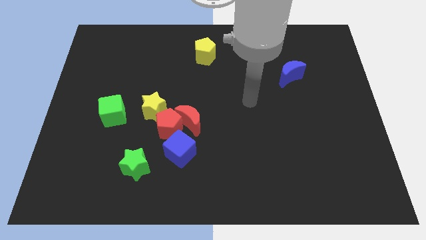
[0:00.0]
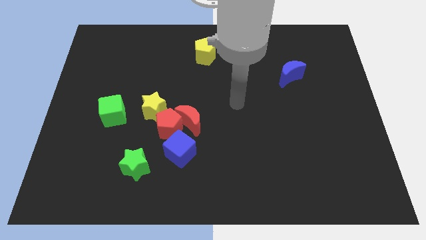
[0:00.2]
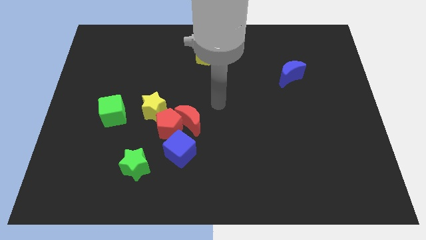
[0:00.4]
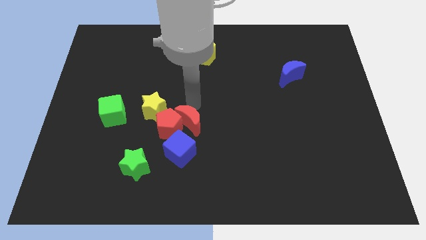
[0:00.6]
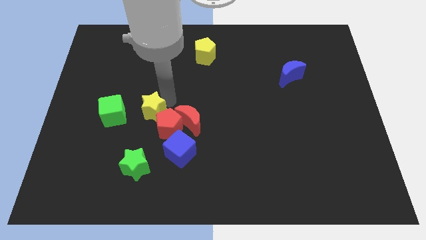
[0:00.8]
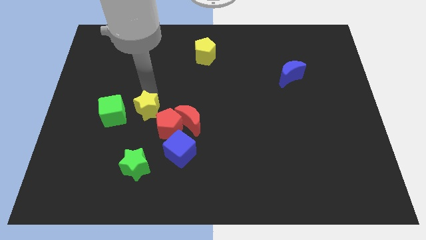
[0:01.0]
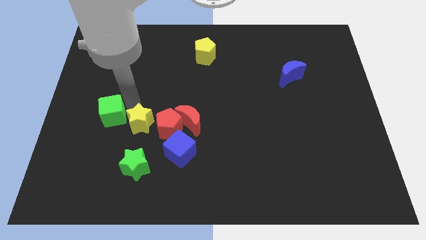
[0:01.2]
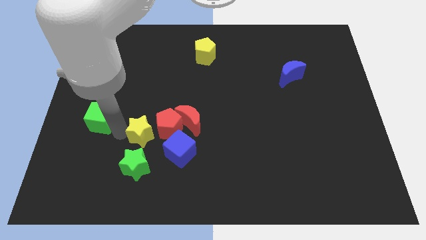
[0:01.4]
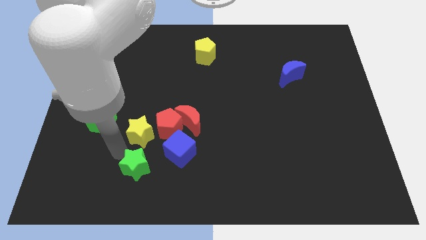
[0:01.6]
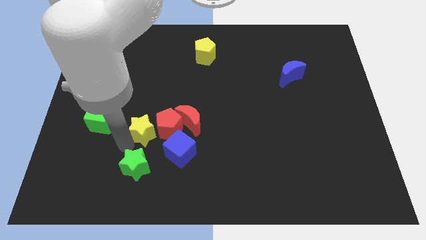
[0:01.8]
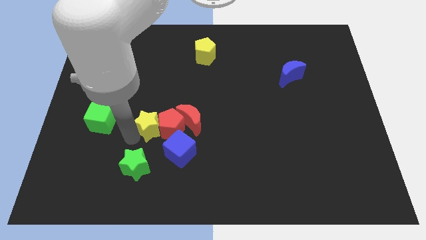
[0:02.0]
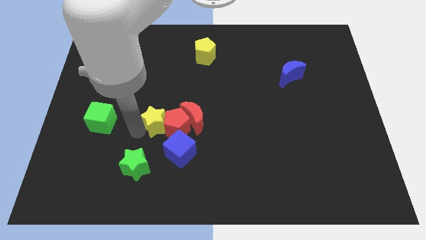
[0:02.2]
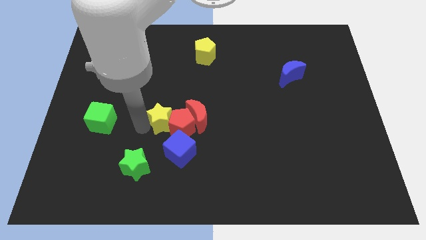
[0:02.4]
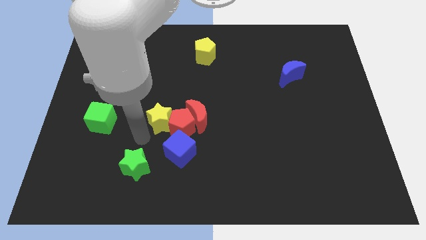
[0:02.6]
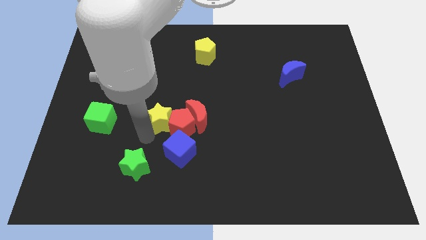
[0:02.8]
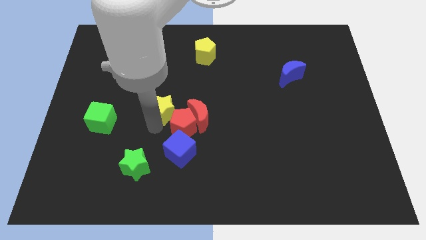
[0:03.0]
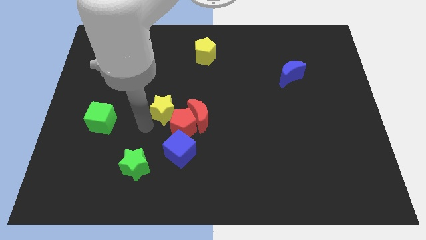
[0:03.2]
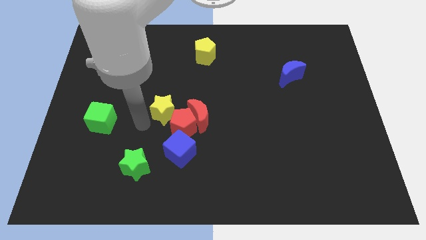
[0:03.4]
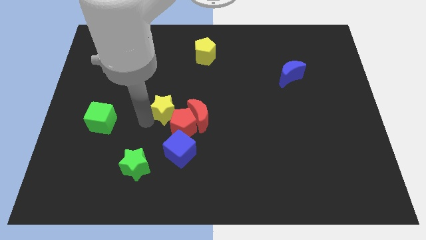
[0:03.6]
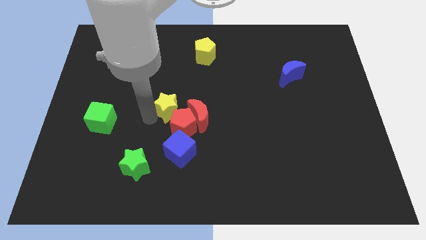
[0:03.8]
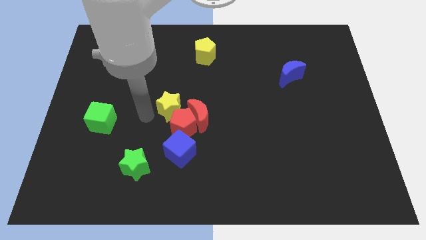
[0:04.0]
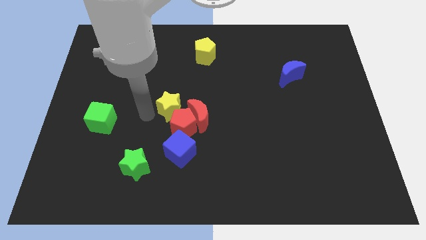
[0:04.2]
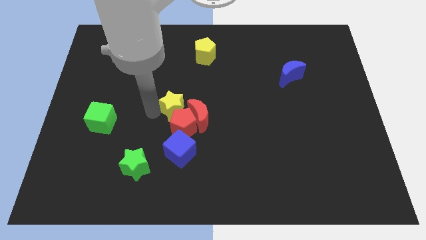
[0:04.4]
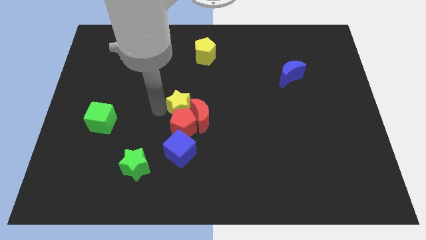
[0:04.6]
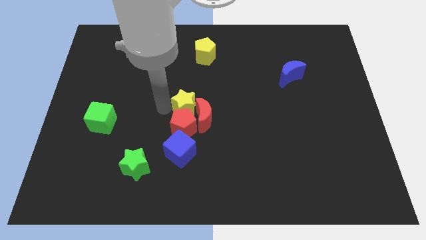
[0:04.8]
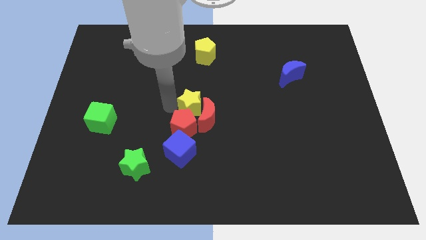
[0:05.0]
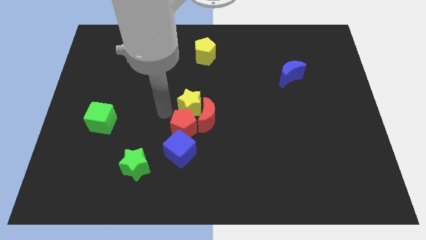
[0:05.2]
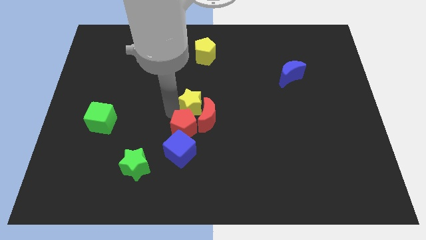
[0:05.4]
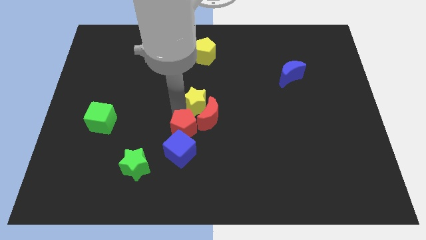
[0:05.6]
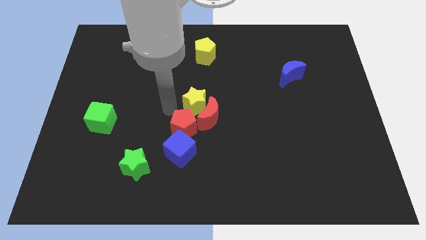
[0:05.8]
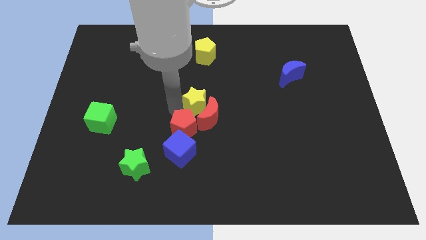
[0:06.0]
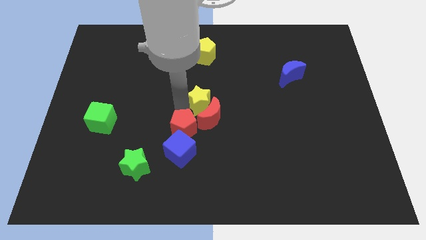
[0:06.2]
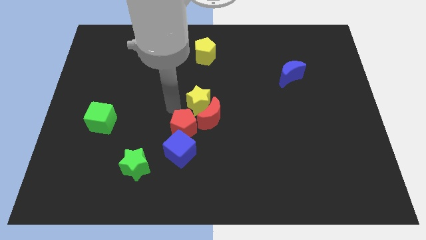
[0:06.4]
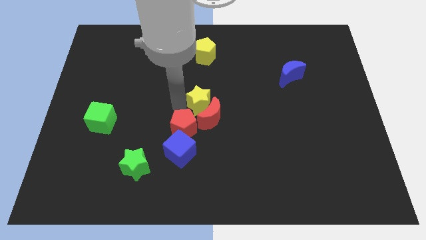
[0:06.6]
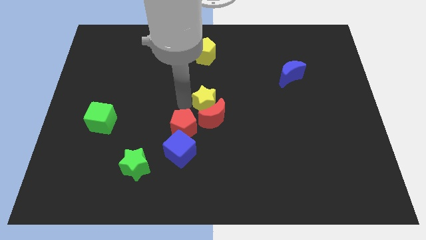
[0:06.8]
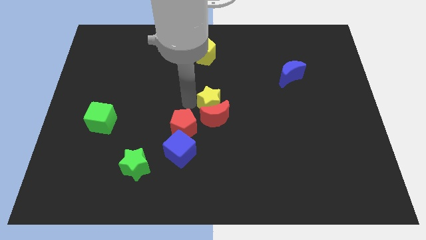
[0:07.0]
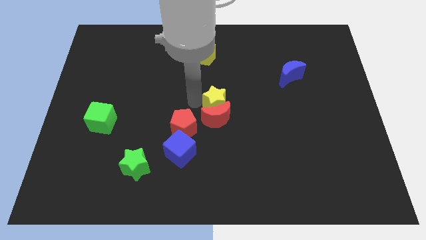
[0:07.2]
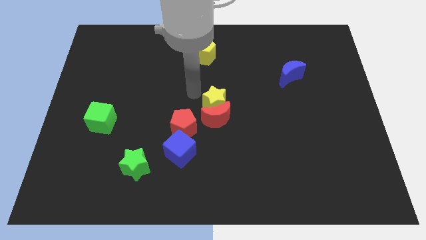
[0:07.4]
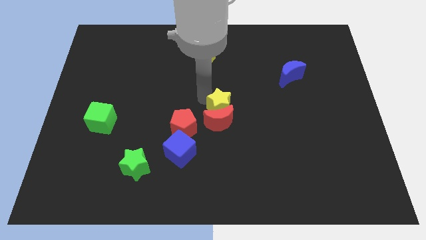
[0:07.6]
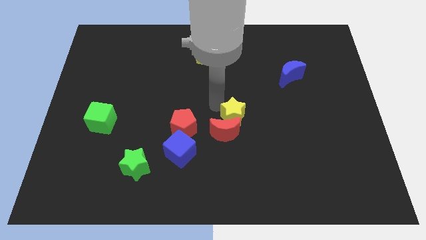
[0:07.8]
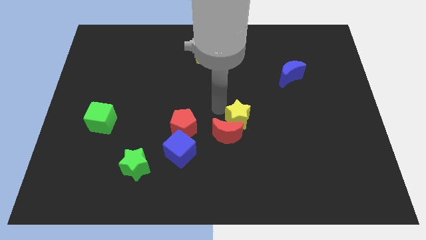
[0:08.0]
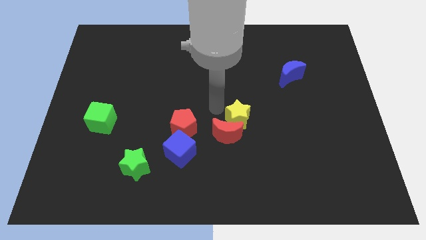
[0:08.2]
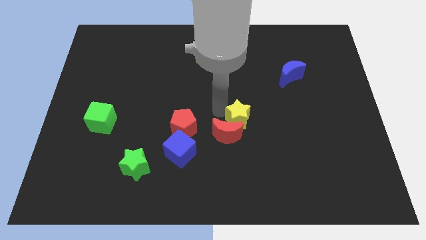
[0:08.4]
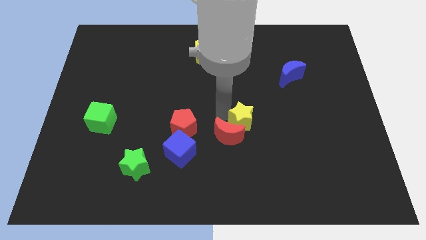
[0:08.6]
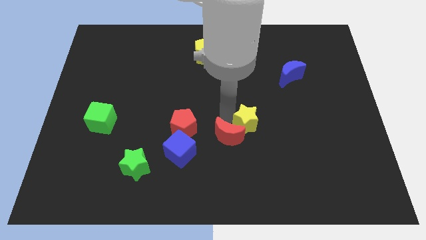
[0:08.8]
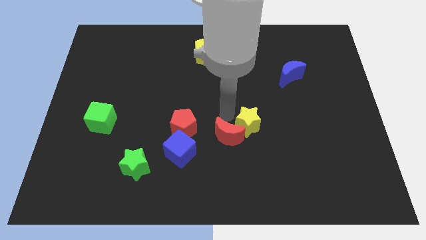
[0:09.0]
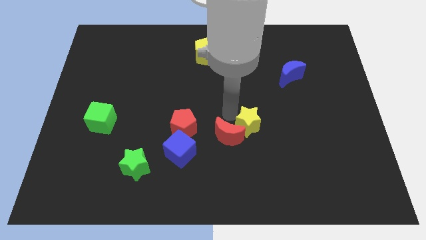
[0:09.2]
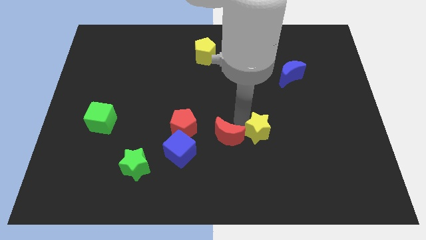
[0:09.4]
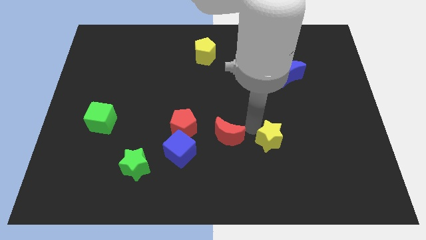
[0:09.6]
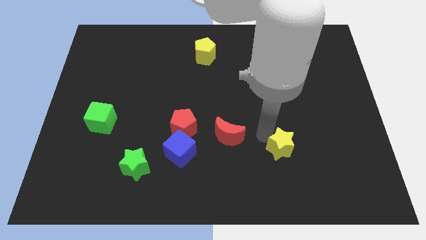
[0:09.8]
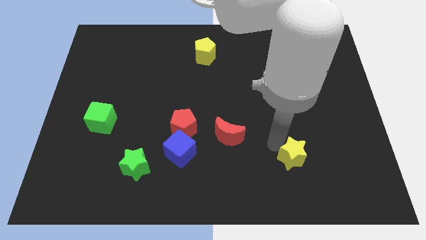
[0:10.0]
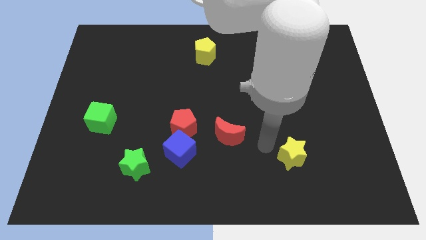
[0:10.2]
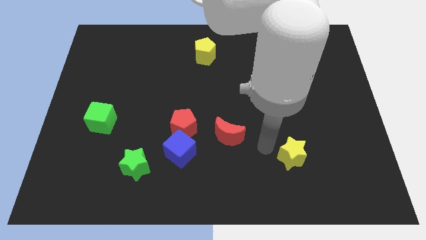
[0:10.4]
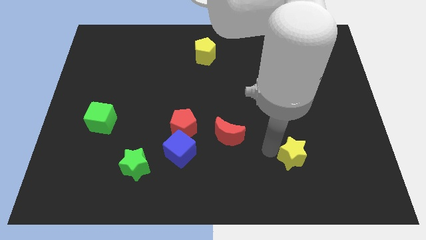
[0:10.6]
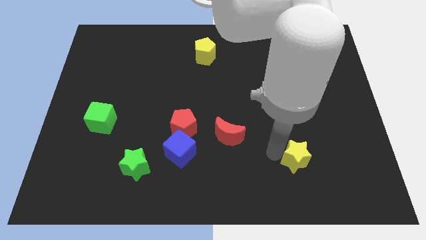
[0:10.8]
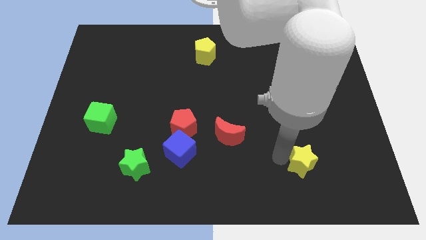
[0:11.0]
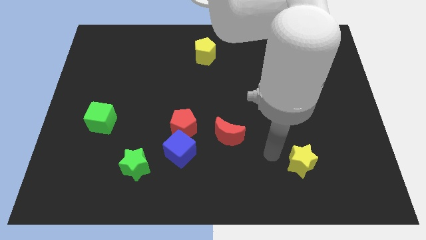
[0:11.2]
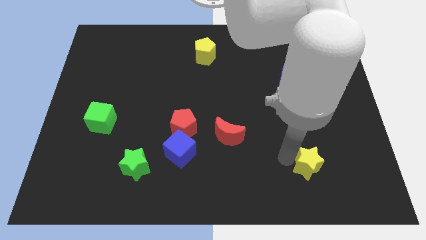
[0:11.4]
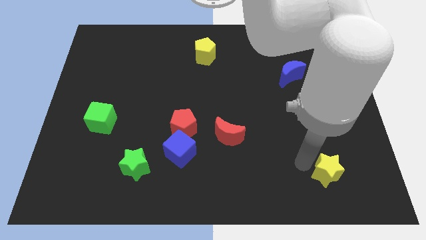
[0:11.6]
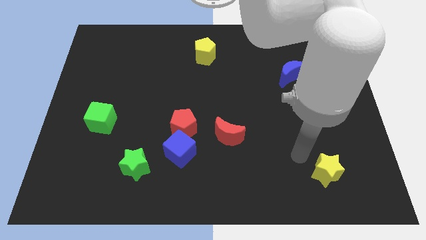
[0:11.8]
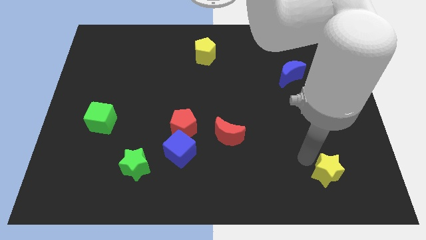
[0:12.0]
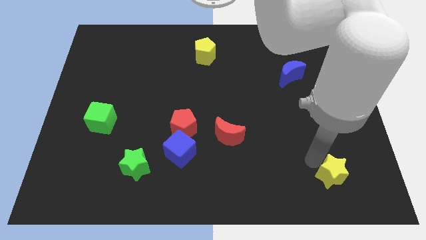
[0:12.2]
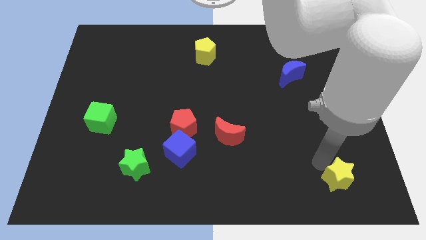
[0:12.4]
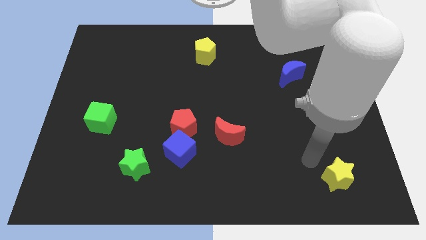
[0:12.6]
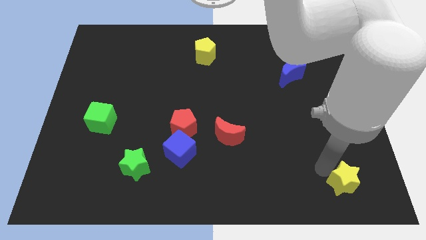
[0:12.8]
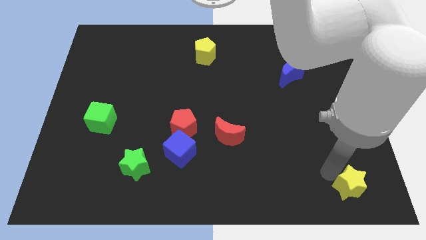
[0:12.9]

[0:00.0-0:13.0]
push the yellow star to the bottom right corner
